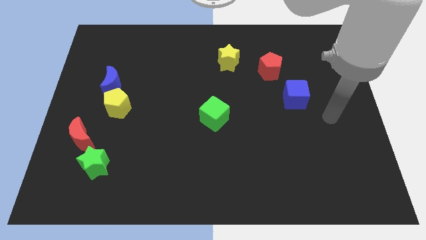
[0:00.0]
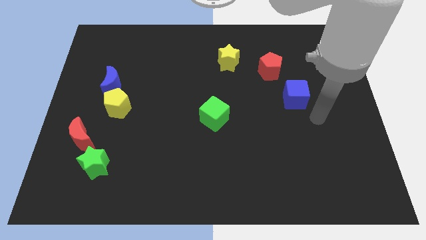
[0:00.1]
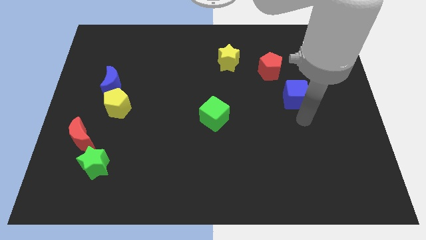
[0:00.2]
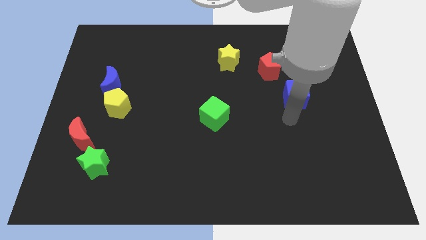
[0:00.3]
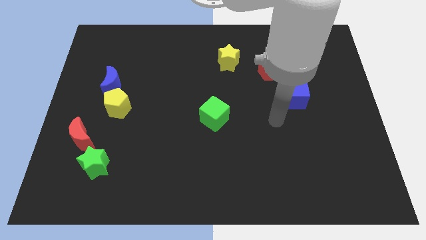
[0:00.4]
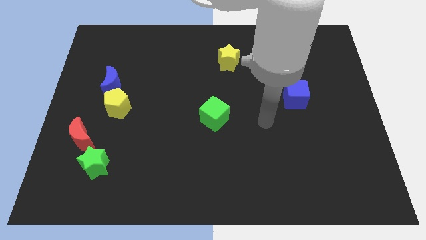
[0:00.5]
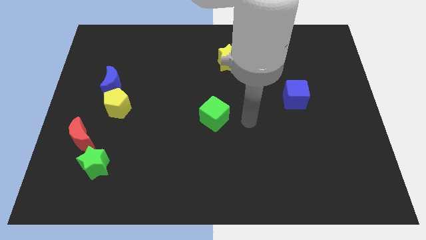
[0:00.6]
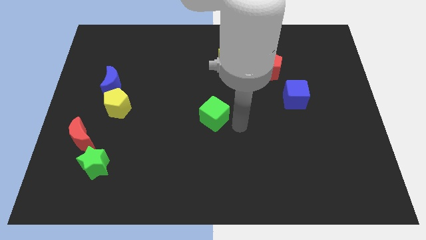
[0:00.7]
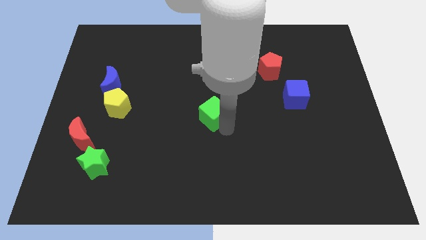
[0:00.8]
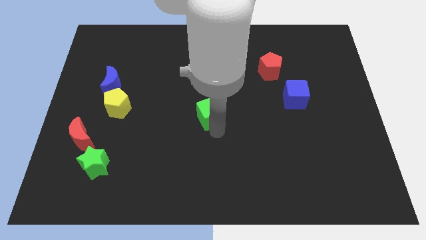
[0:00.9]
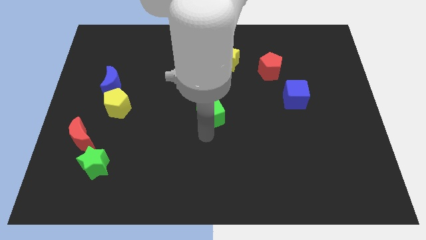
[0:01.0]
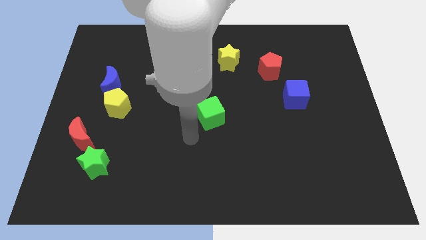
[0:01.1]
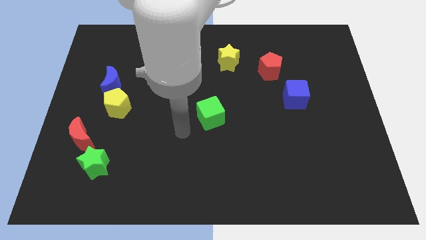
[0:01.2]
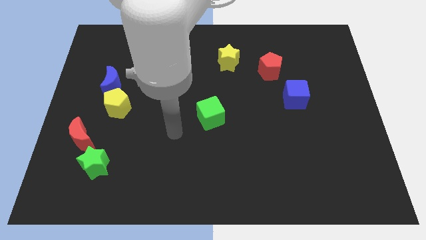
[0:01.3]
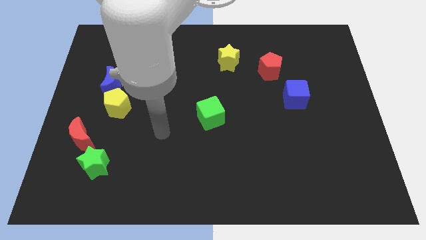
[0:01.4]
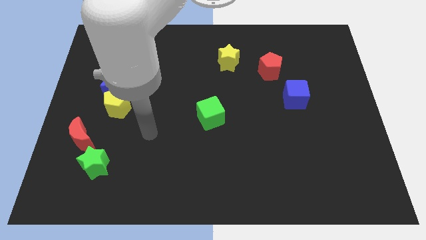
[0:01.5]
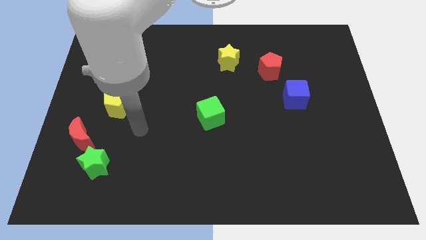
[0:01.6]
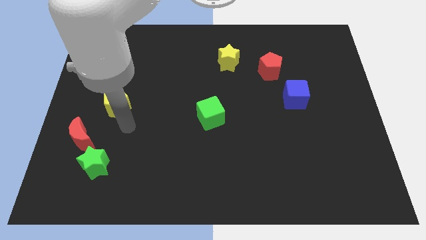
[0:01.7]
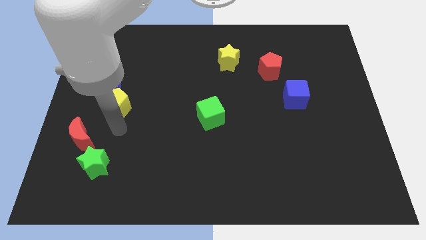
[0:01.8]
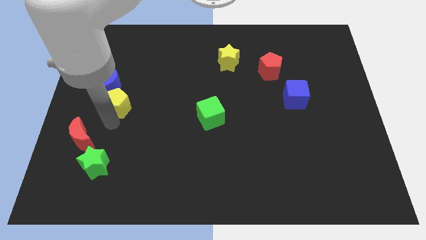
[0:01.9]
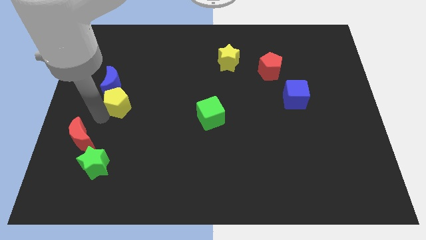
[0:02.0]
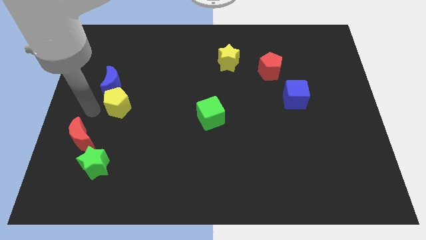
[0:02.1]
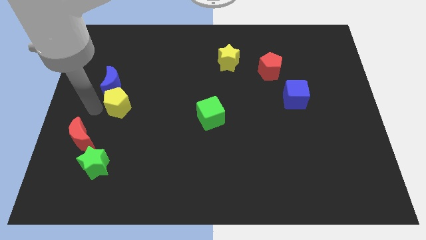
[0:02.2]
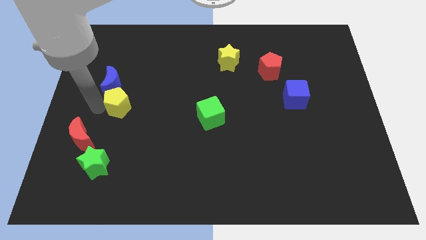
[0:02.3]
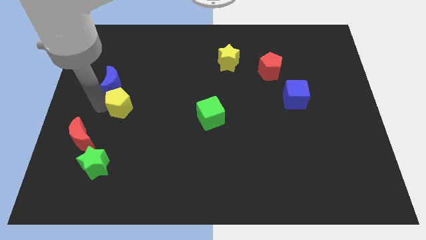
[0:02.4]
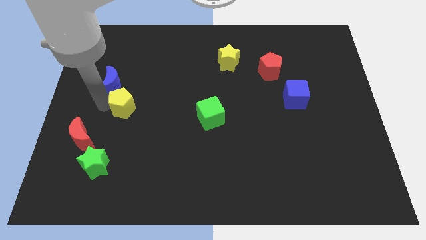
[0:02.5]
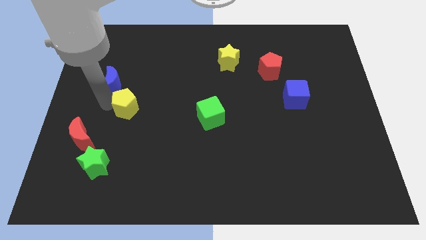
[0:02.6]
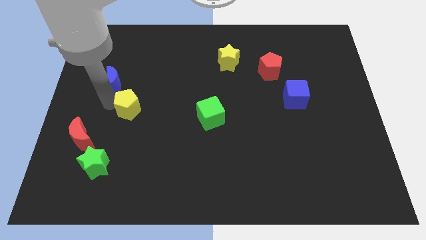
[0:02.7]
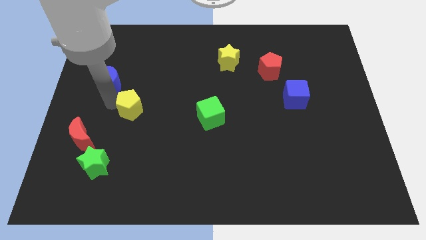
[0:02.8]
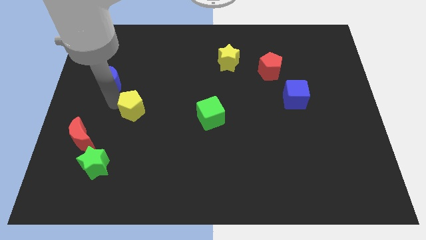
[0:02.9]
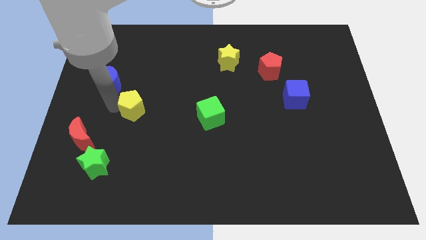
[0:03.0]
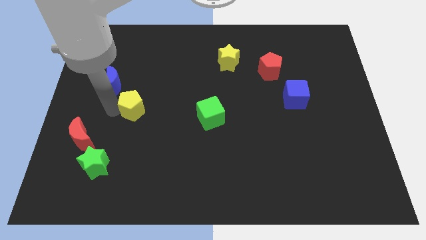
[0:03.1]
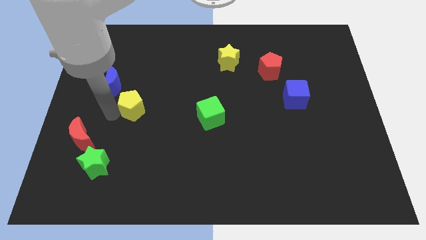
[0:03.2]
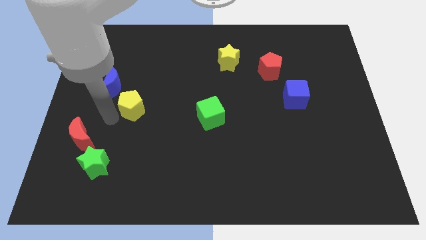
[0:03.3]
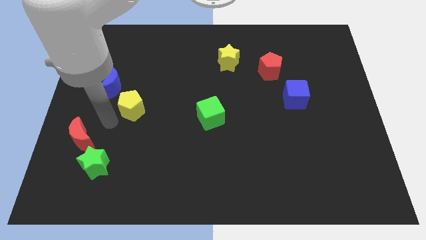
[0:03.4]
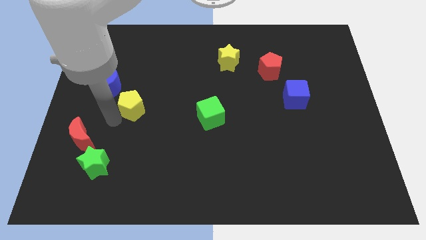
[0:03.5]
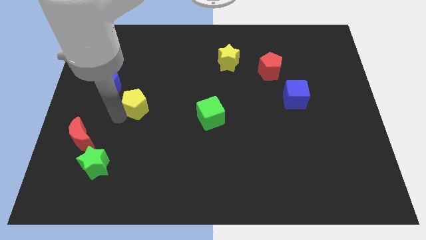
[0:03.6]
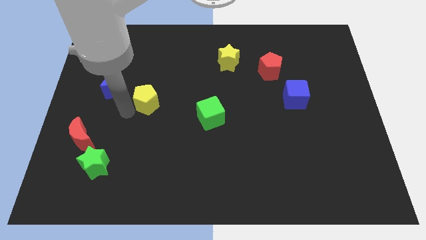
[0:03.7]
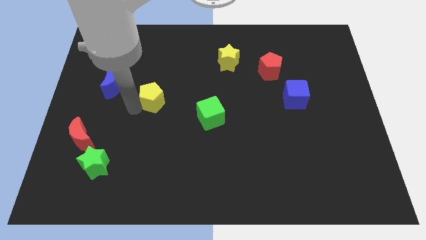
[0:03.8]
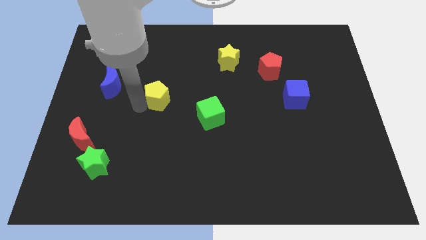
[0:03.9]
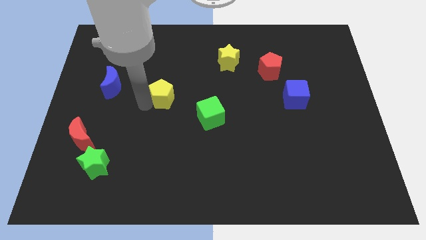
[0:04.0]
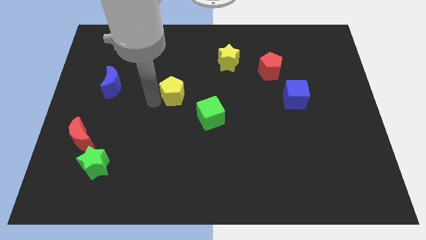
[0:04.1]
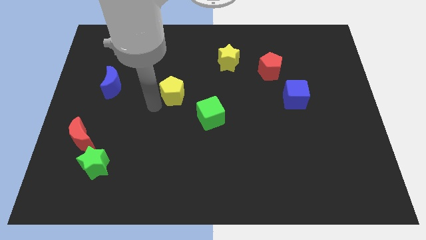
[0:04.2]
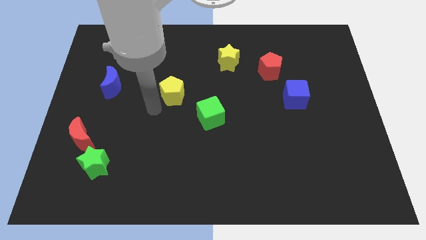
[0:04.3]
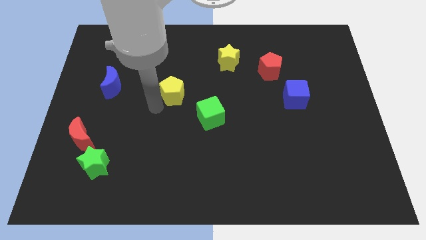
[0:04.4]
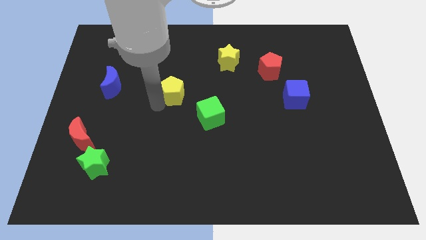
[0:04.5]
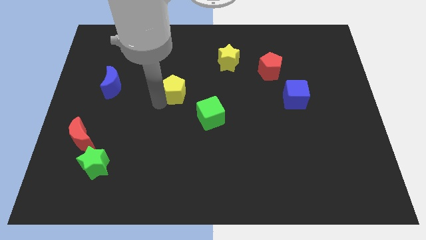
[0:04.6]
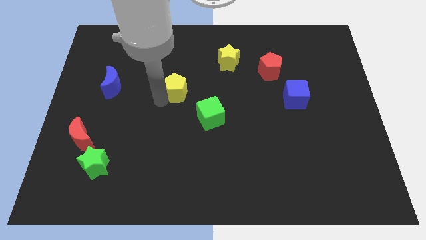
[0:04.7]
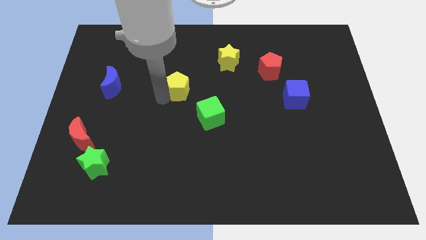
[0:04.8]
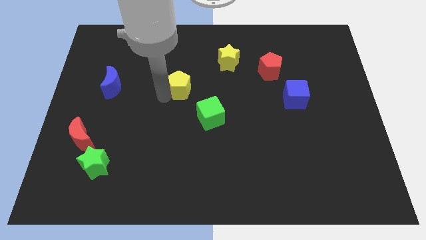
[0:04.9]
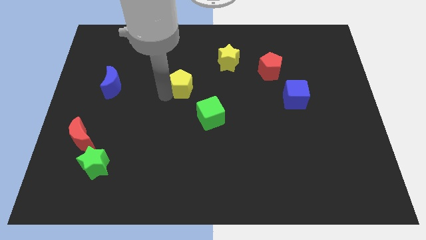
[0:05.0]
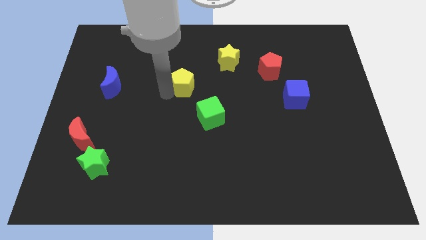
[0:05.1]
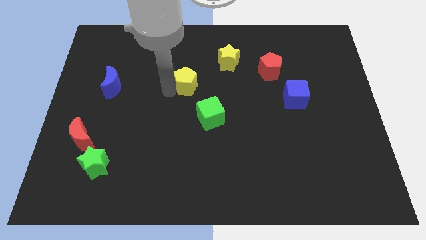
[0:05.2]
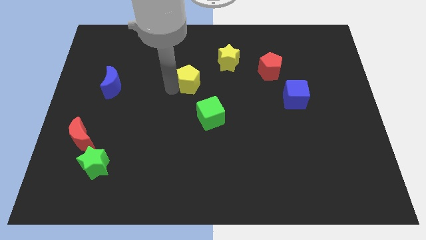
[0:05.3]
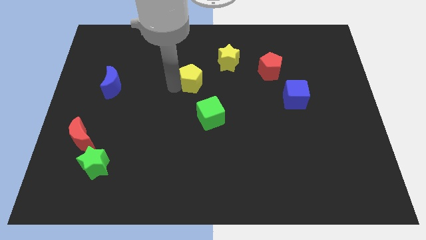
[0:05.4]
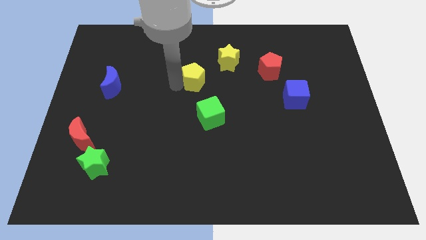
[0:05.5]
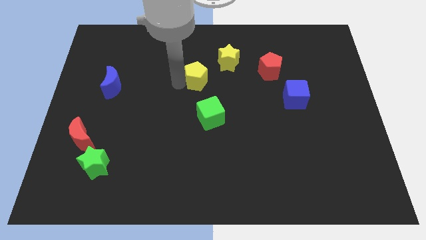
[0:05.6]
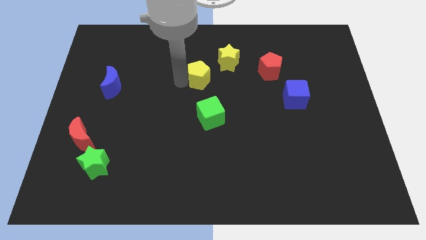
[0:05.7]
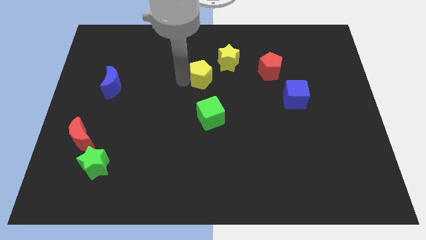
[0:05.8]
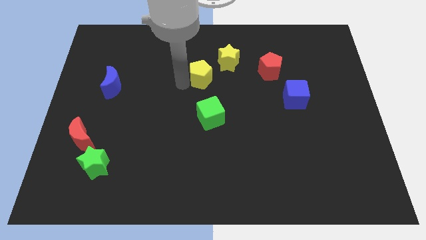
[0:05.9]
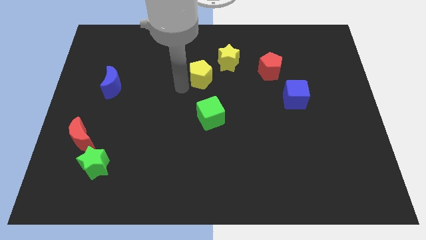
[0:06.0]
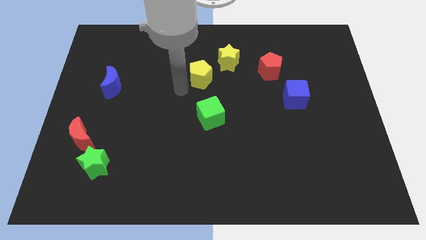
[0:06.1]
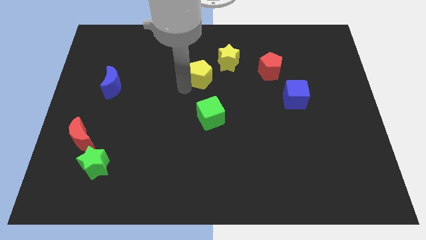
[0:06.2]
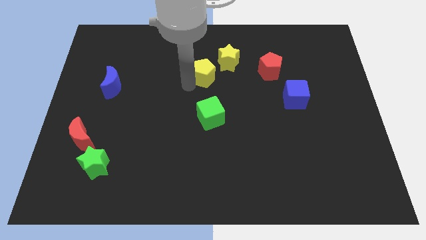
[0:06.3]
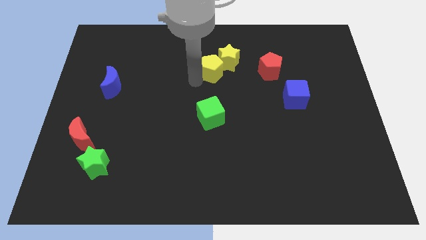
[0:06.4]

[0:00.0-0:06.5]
put the yellow pentagon next to the yellow star

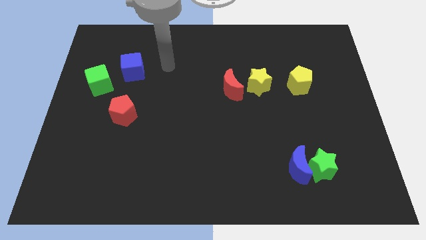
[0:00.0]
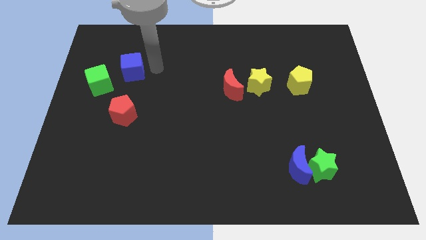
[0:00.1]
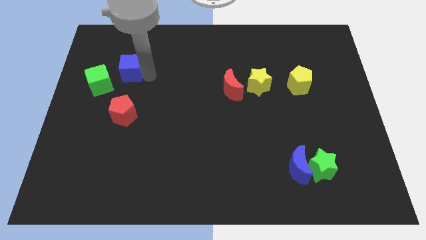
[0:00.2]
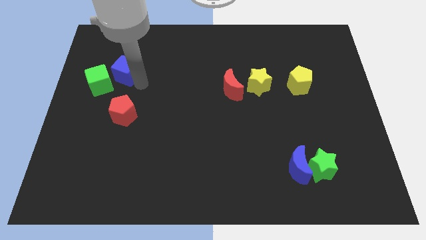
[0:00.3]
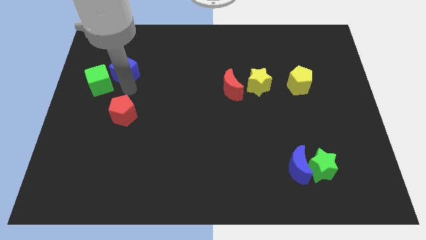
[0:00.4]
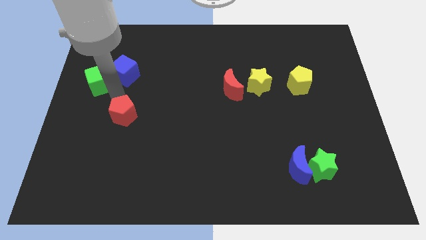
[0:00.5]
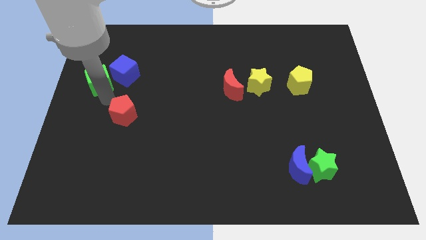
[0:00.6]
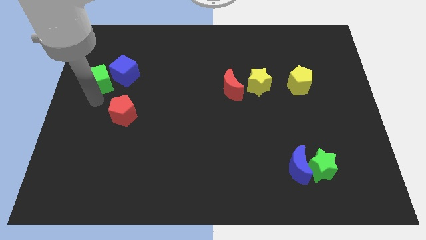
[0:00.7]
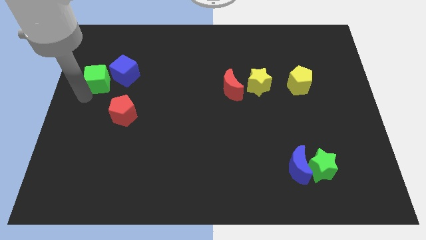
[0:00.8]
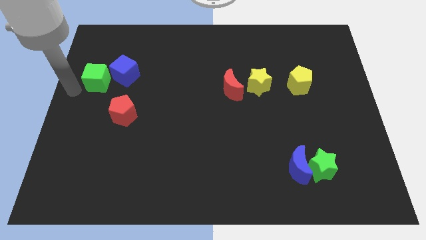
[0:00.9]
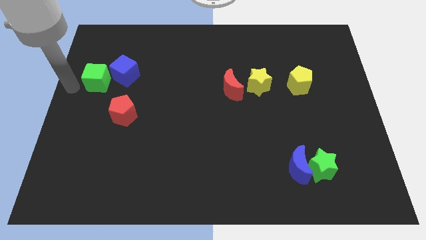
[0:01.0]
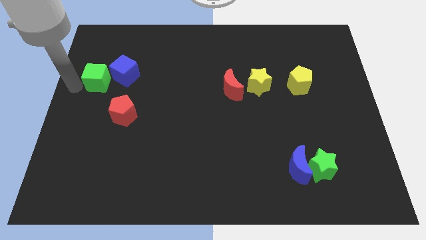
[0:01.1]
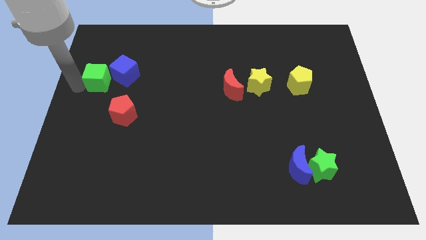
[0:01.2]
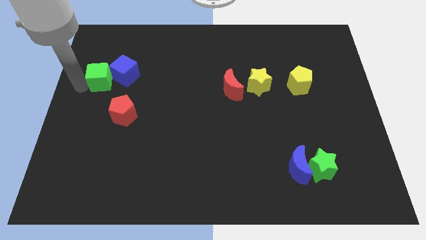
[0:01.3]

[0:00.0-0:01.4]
put the green cube to the blue cube
